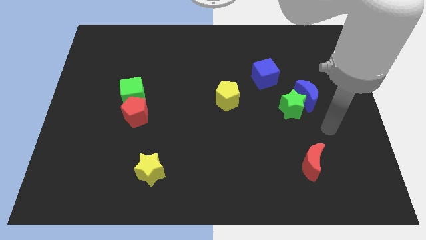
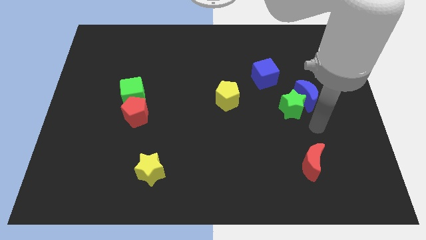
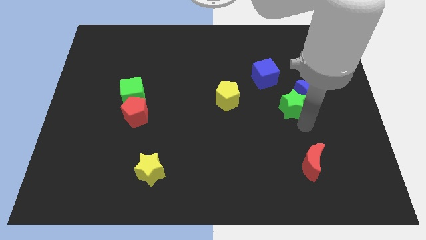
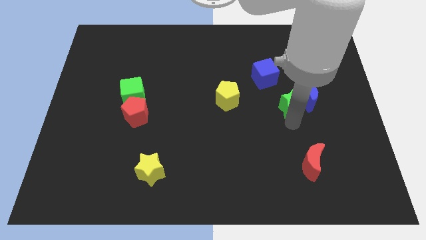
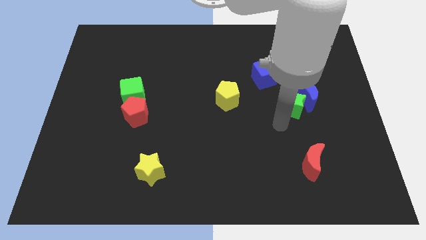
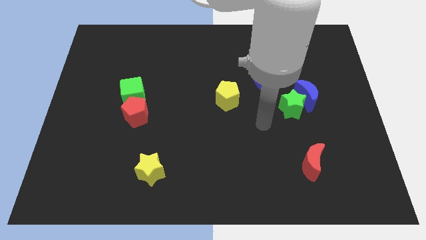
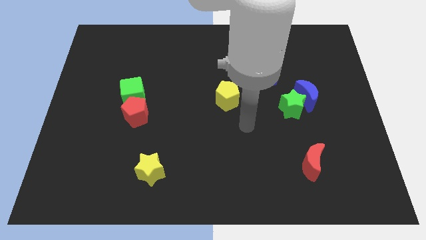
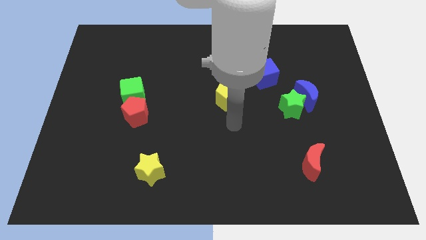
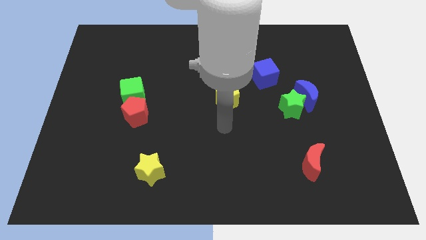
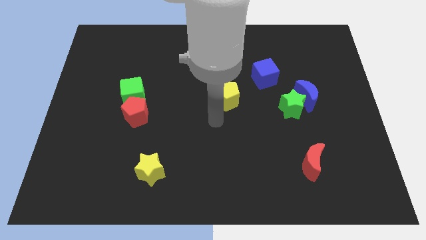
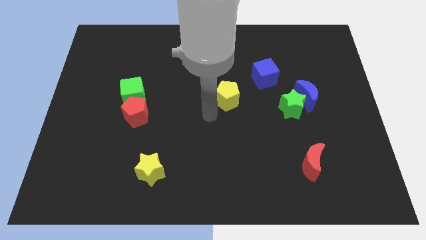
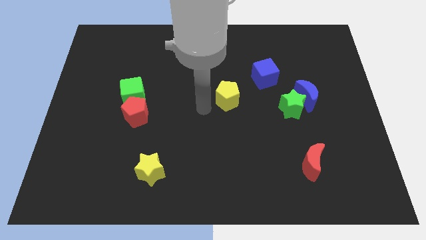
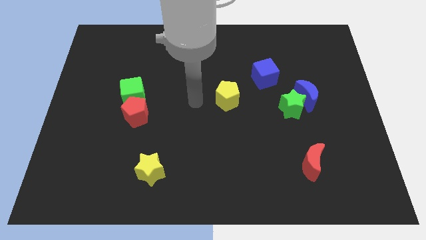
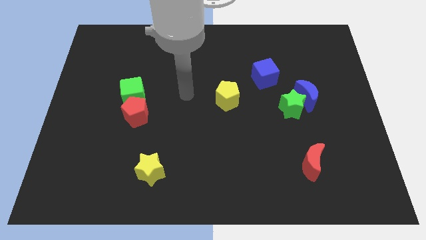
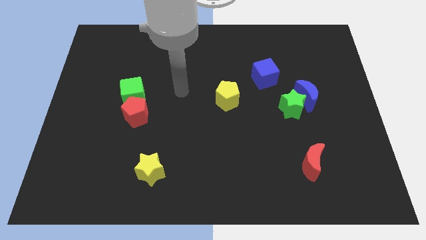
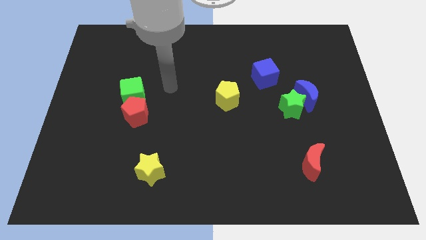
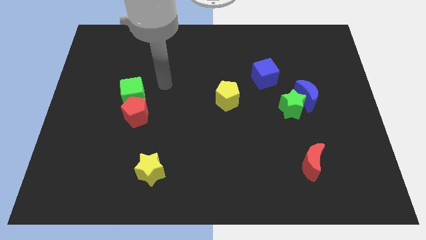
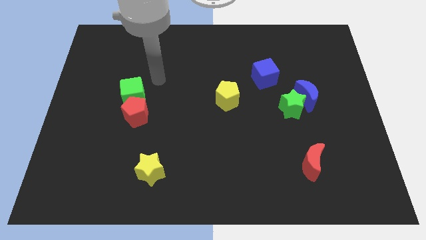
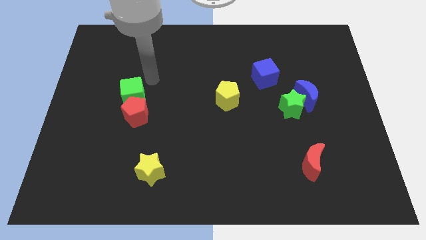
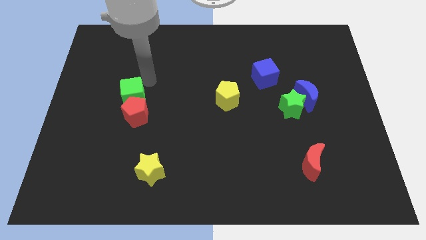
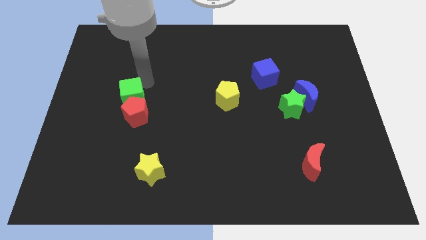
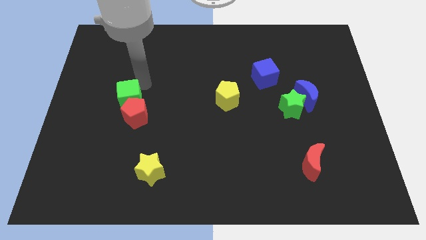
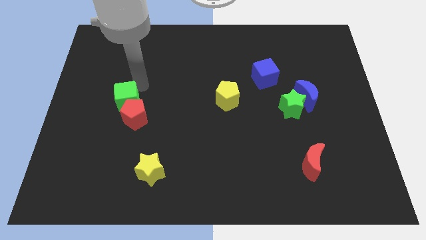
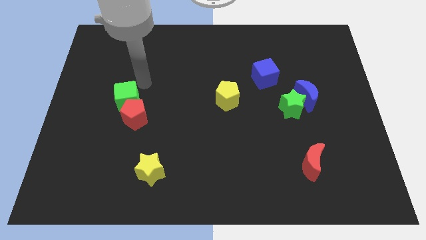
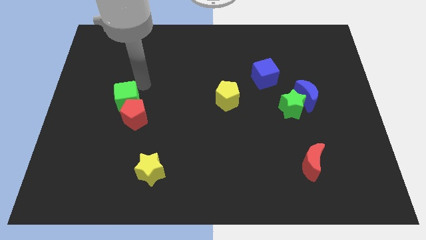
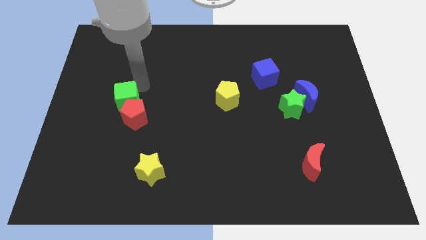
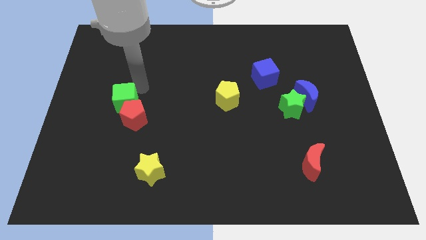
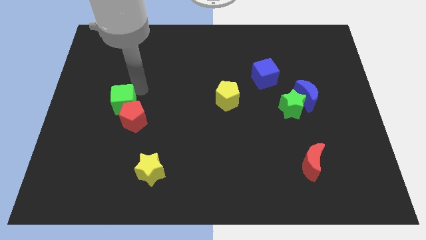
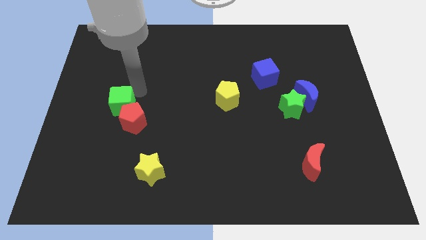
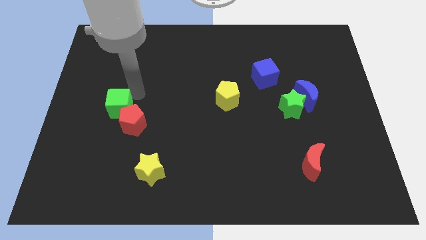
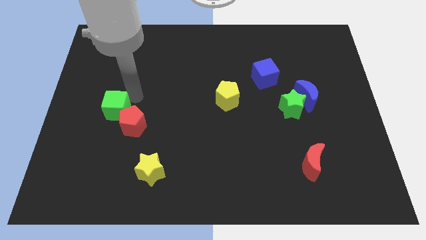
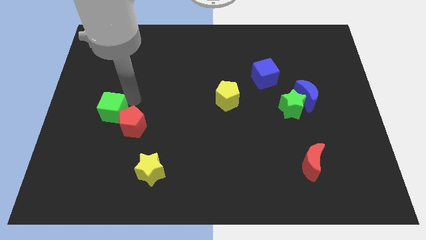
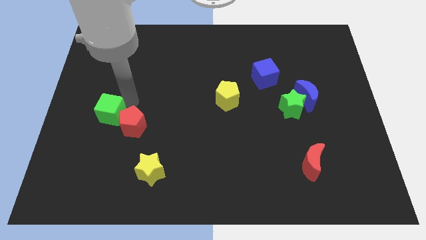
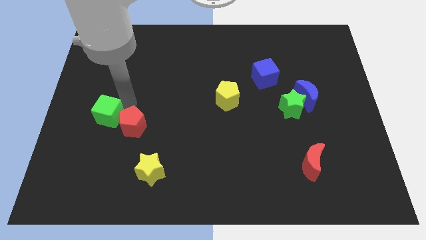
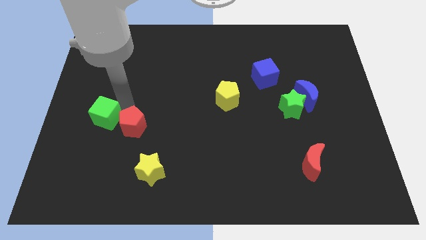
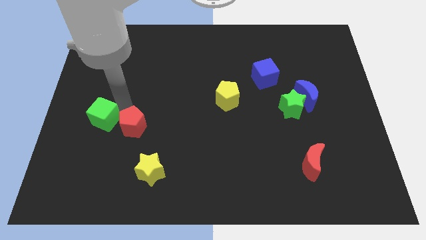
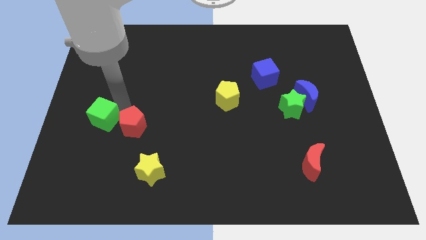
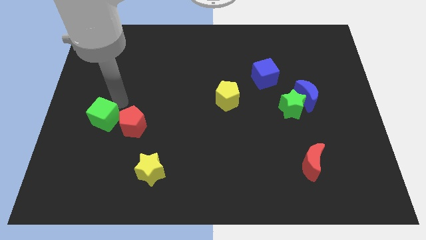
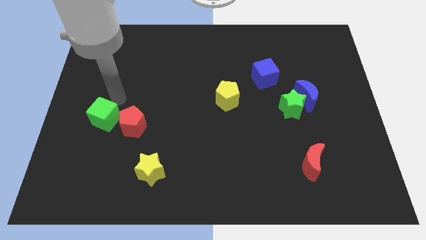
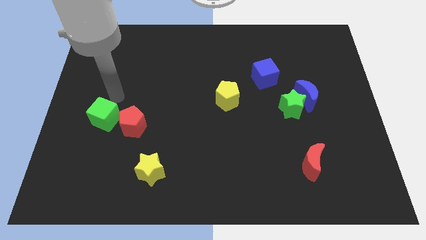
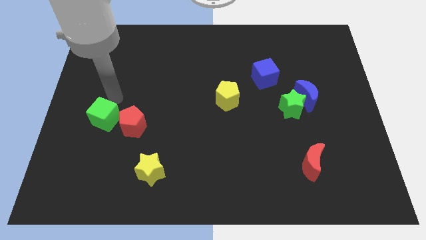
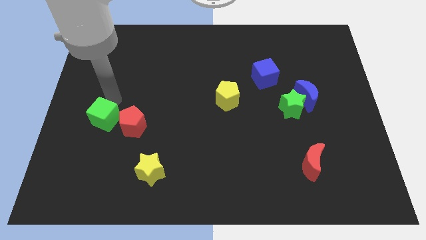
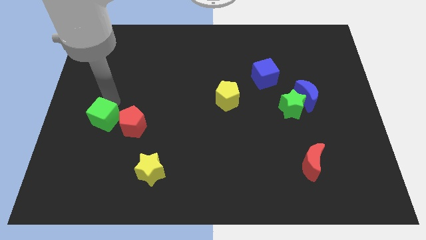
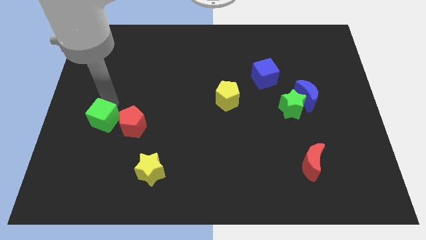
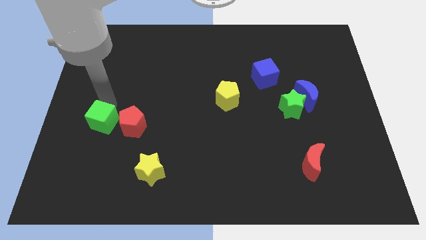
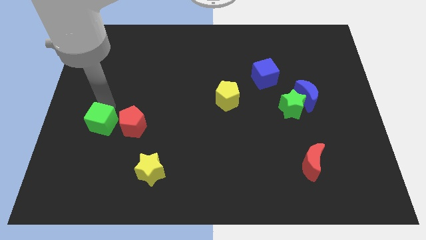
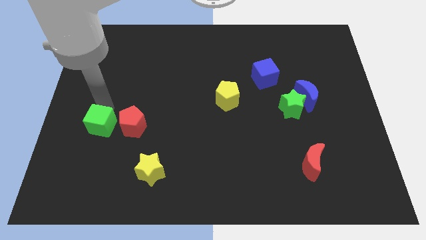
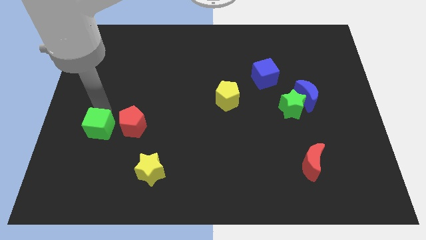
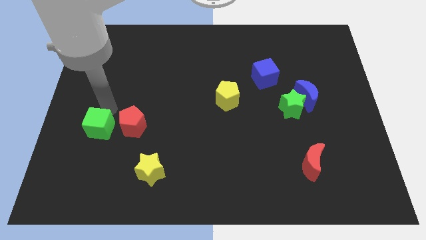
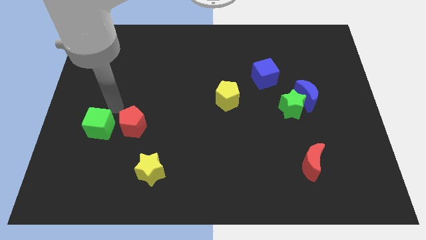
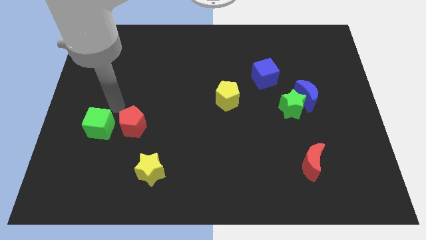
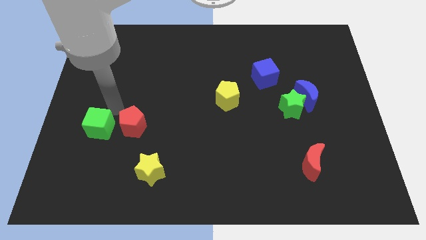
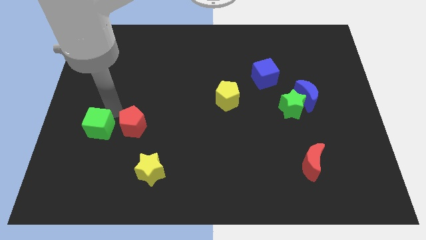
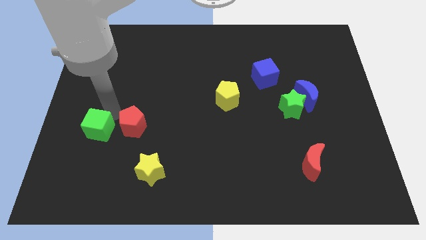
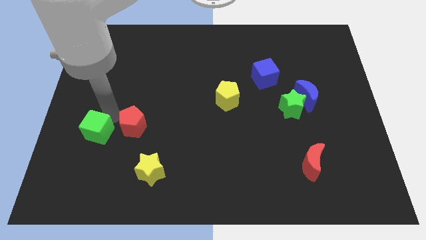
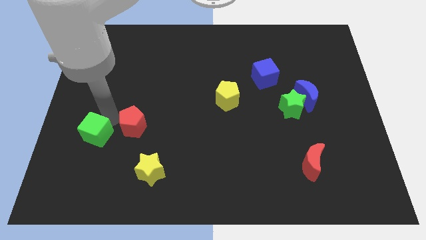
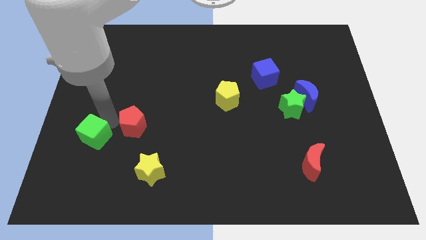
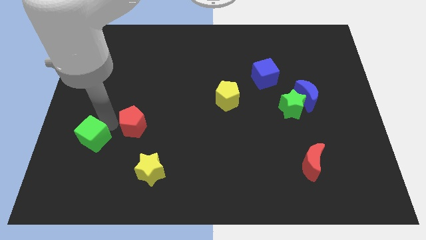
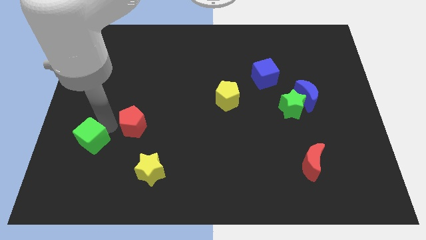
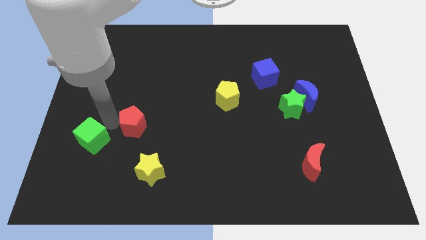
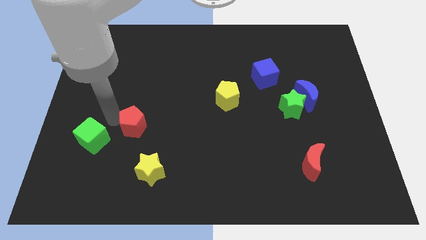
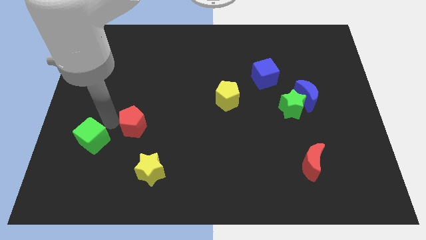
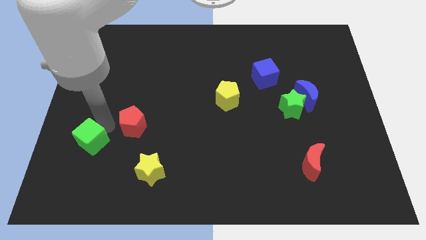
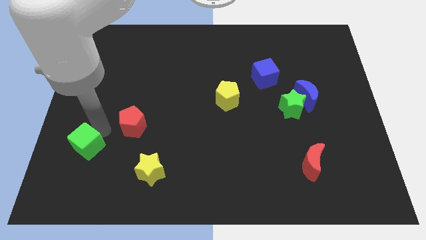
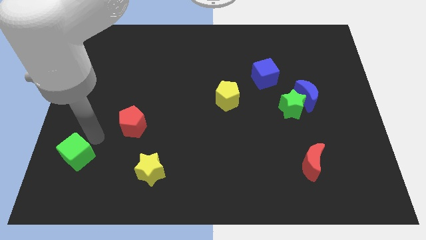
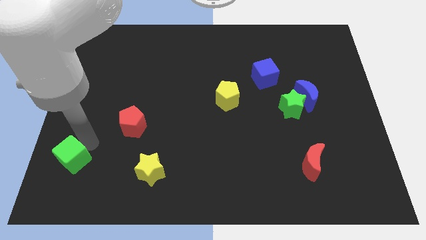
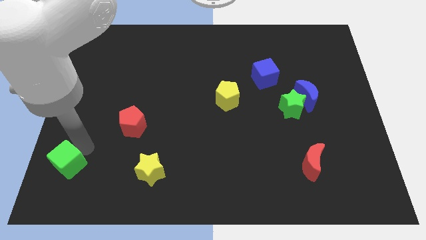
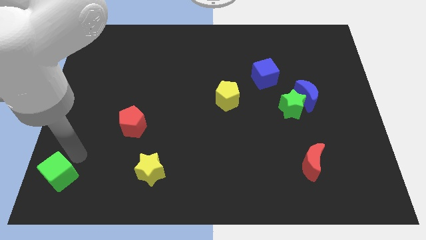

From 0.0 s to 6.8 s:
put the green cube to the bottom left
